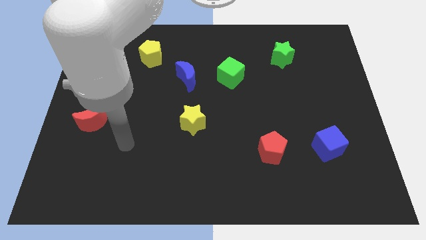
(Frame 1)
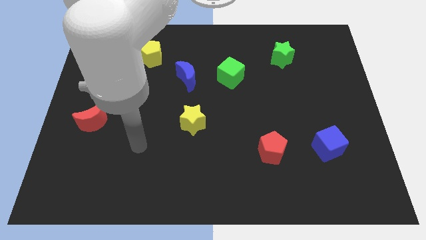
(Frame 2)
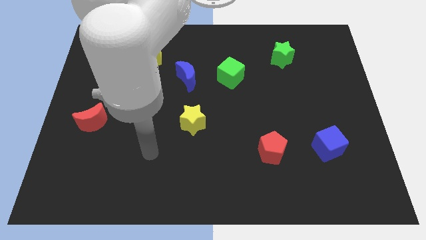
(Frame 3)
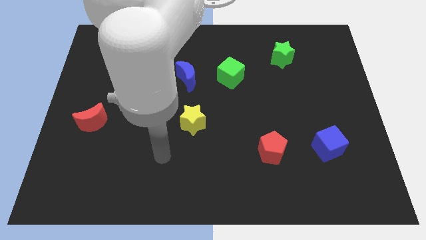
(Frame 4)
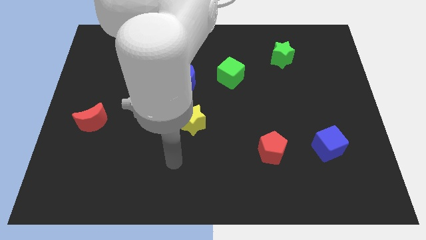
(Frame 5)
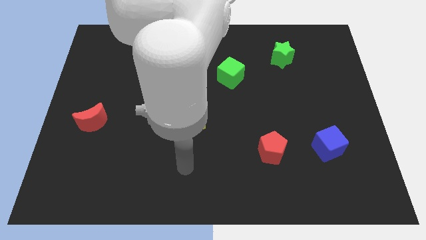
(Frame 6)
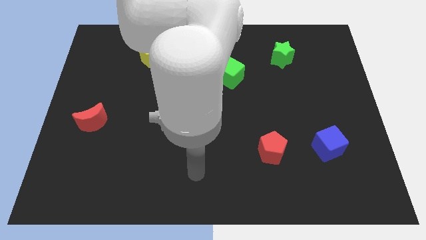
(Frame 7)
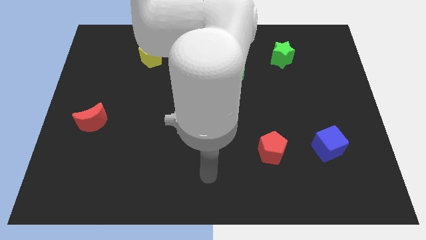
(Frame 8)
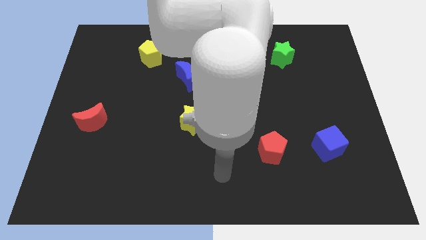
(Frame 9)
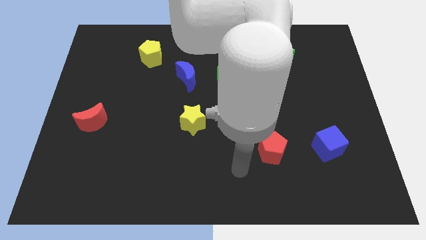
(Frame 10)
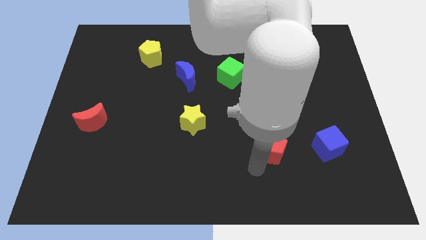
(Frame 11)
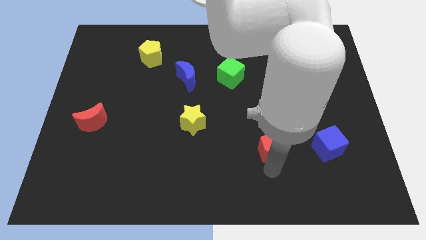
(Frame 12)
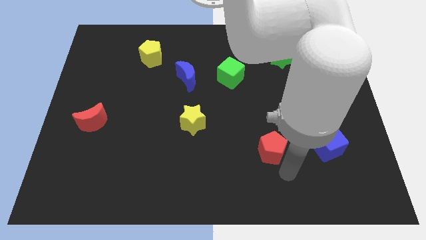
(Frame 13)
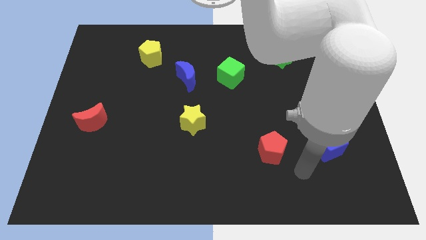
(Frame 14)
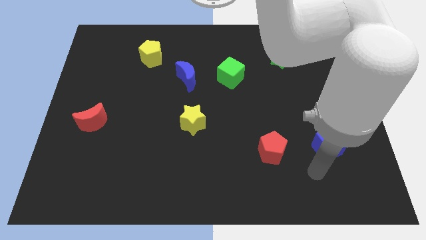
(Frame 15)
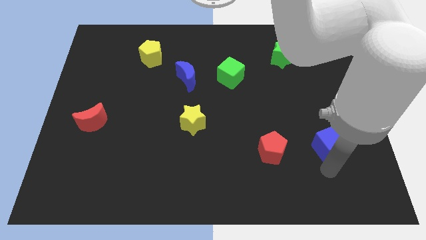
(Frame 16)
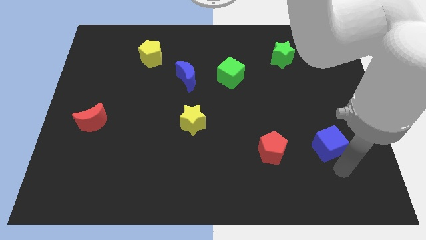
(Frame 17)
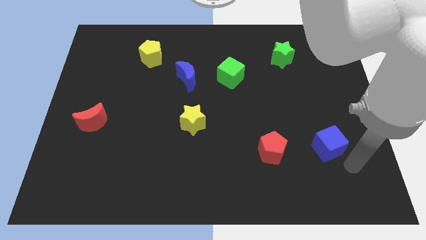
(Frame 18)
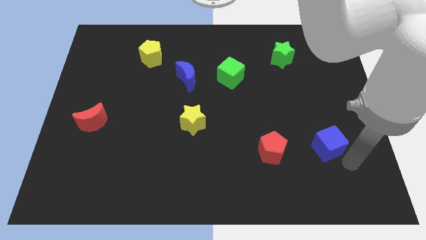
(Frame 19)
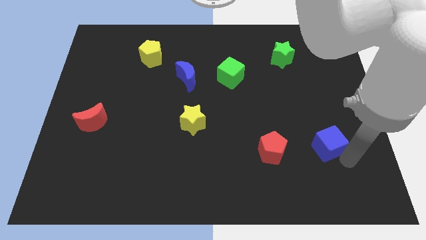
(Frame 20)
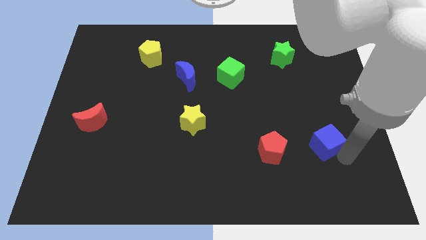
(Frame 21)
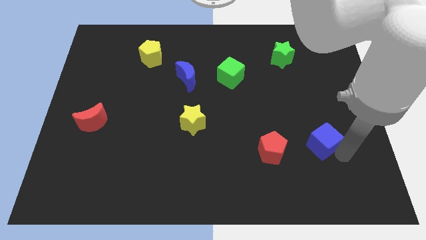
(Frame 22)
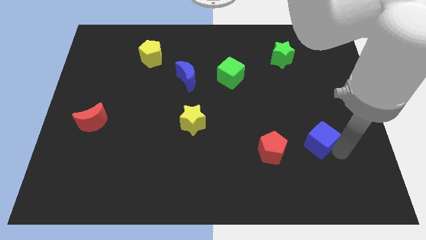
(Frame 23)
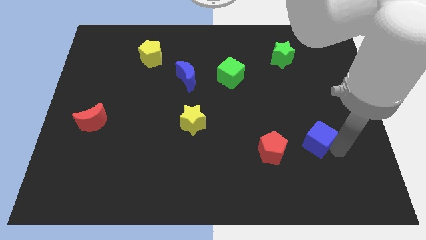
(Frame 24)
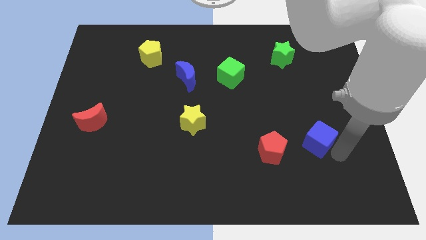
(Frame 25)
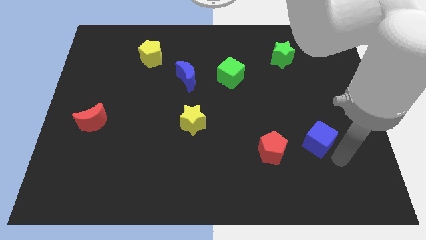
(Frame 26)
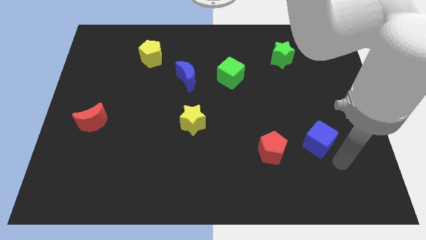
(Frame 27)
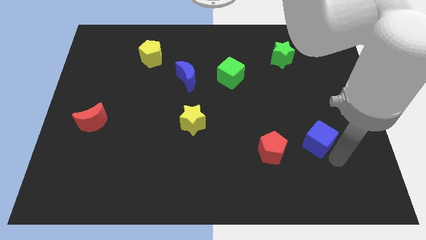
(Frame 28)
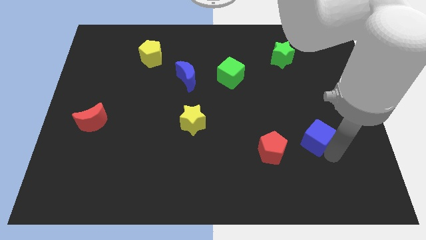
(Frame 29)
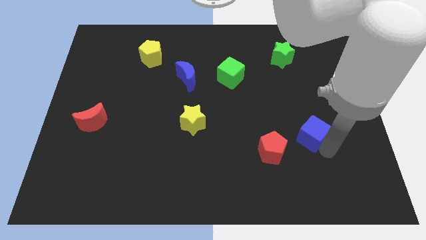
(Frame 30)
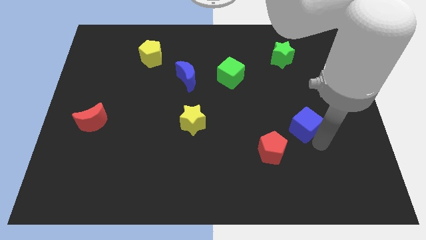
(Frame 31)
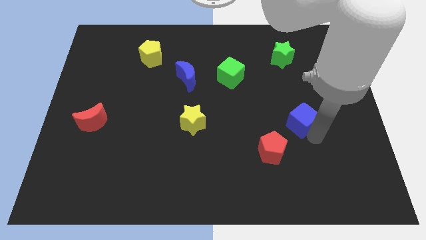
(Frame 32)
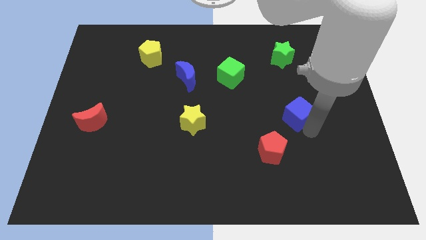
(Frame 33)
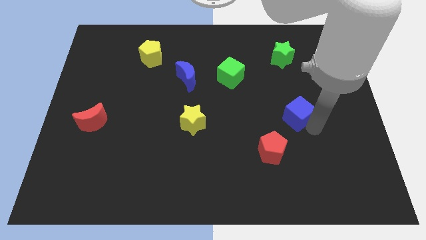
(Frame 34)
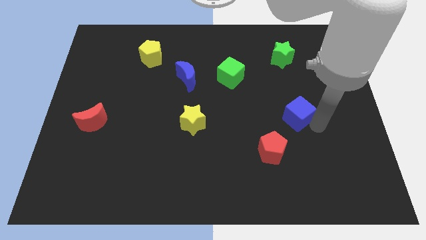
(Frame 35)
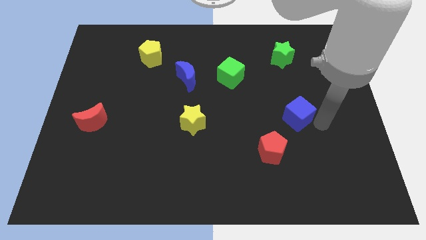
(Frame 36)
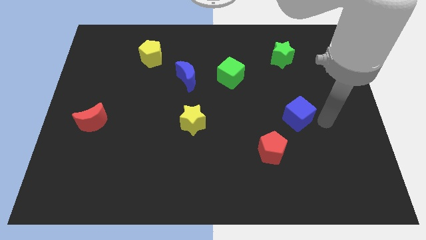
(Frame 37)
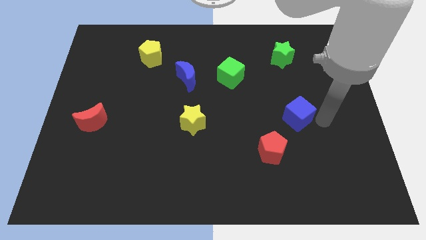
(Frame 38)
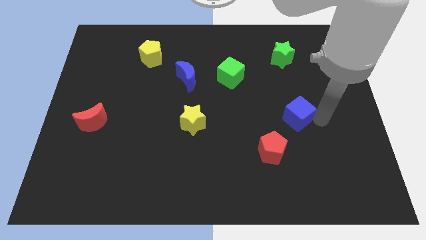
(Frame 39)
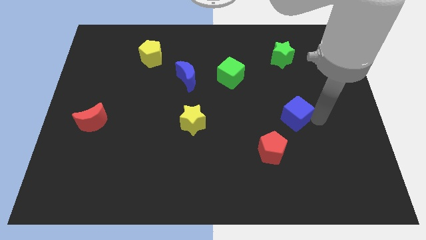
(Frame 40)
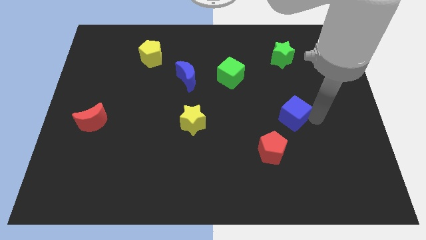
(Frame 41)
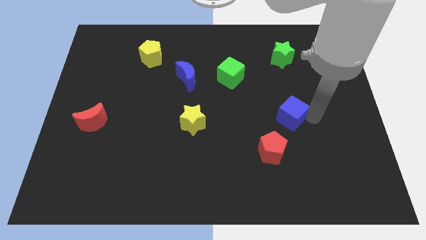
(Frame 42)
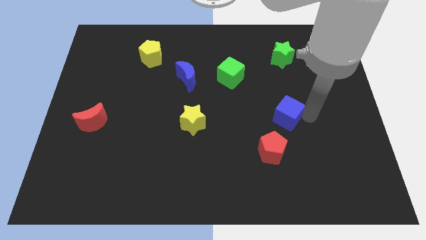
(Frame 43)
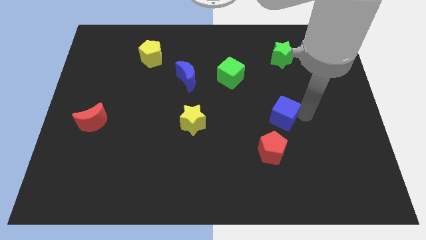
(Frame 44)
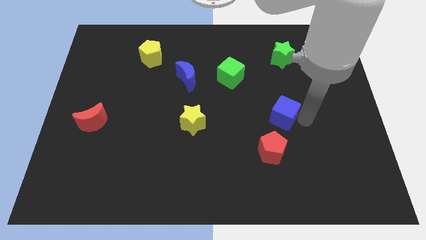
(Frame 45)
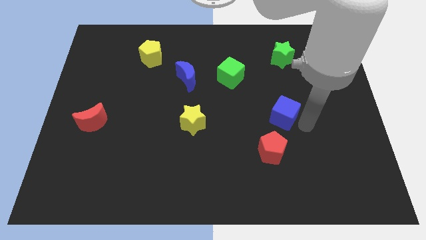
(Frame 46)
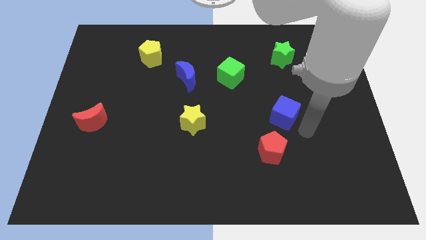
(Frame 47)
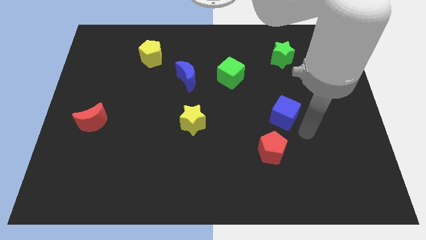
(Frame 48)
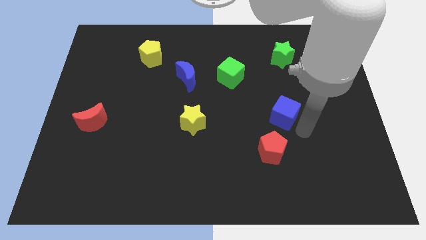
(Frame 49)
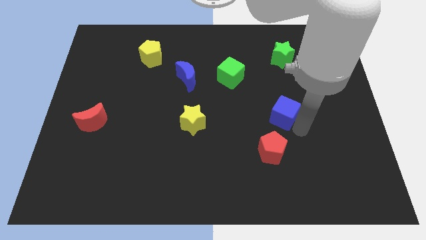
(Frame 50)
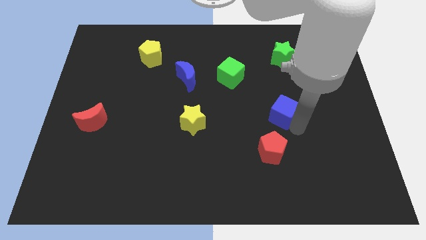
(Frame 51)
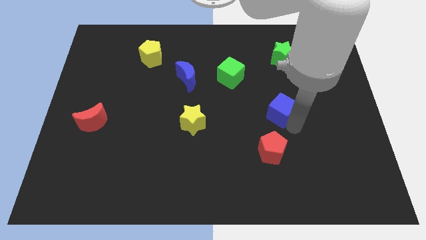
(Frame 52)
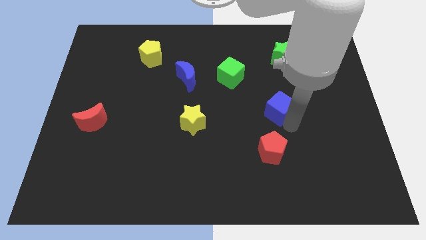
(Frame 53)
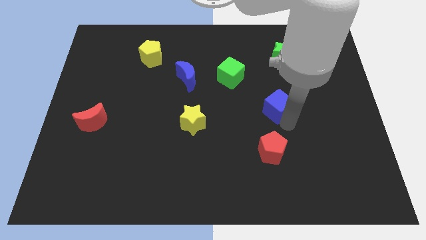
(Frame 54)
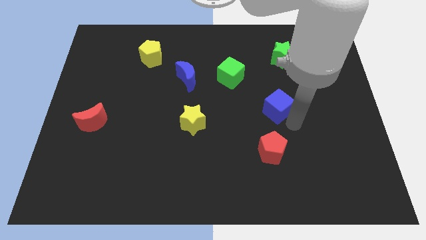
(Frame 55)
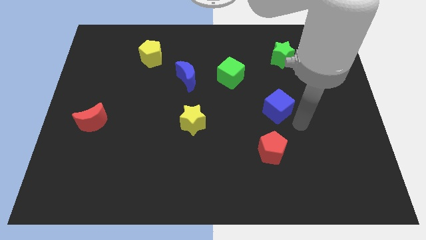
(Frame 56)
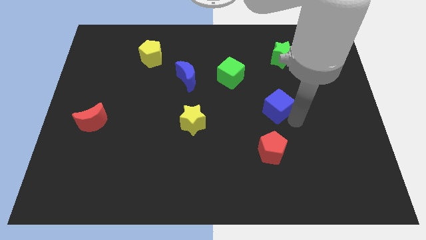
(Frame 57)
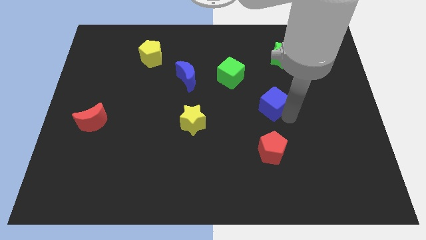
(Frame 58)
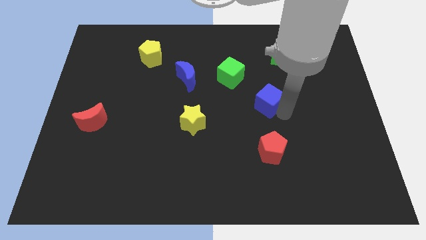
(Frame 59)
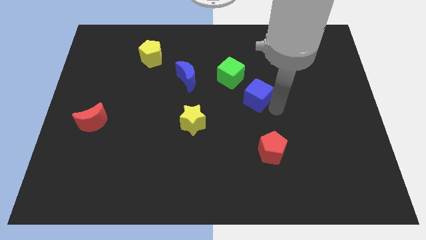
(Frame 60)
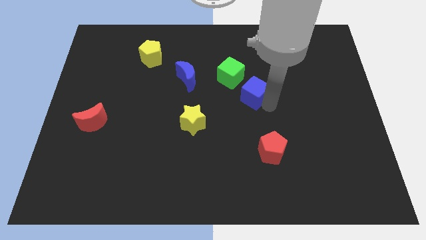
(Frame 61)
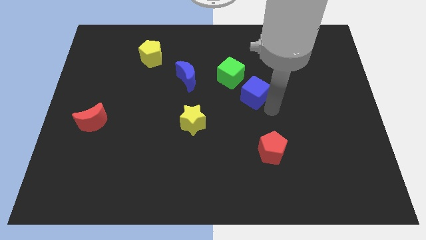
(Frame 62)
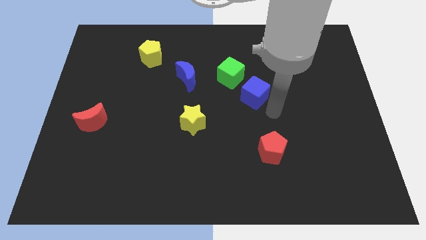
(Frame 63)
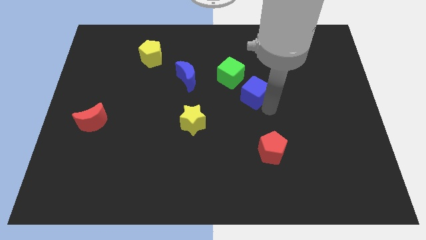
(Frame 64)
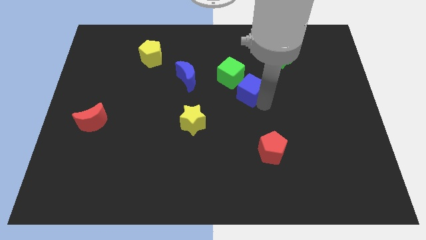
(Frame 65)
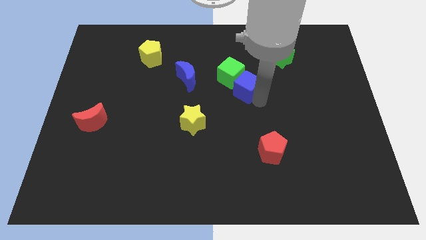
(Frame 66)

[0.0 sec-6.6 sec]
slide the blue cube close to the green cube
